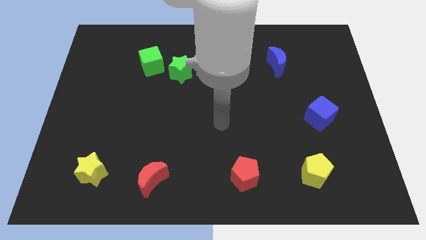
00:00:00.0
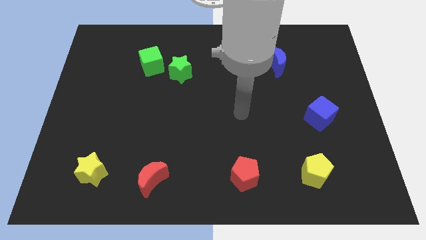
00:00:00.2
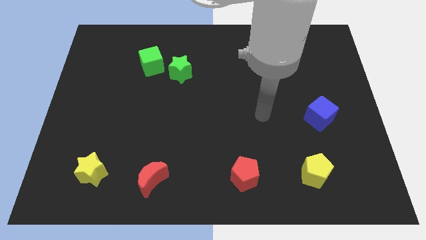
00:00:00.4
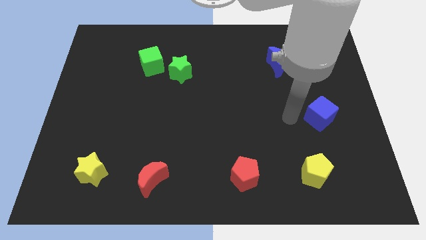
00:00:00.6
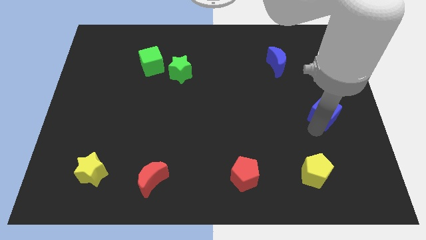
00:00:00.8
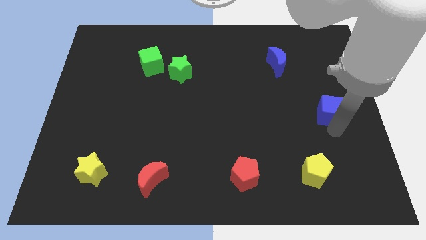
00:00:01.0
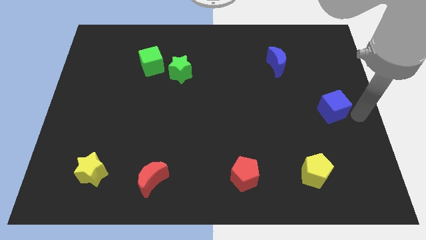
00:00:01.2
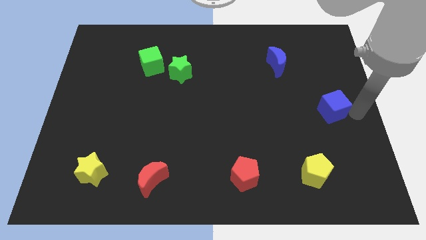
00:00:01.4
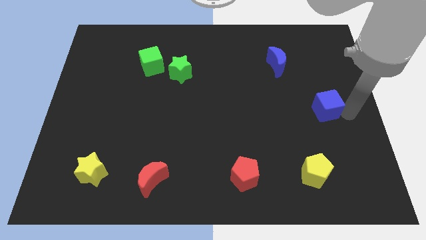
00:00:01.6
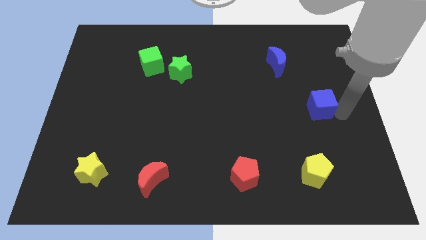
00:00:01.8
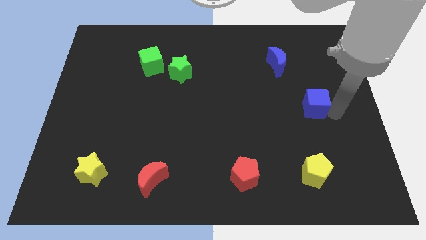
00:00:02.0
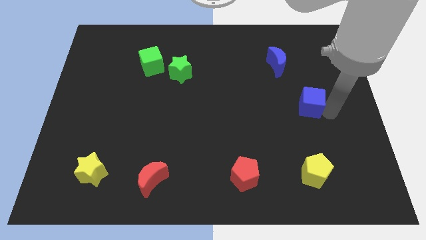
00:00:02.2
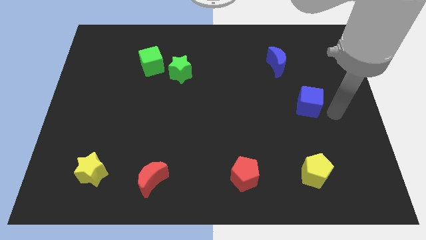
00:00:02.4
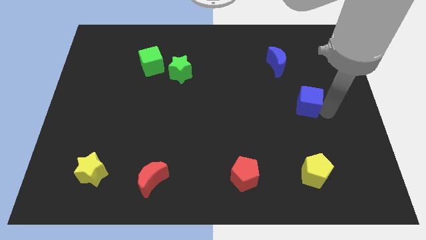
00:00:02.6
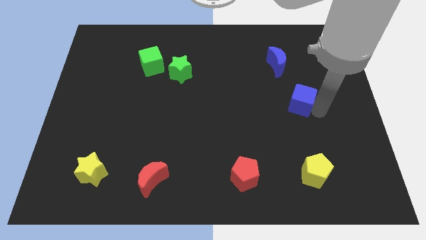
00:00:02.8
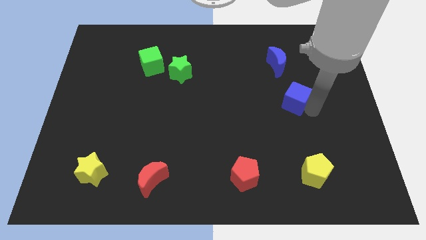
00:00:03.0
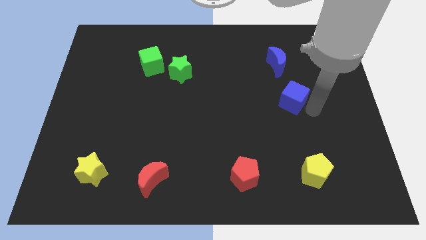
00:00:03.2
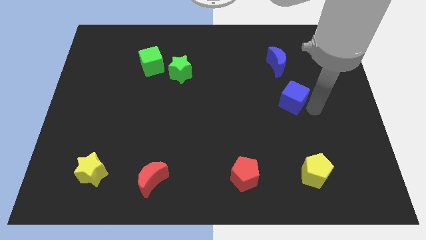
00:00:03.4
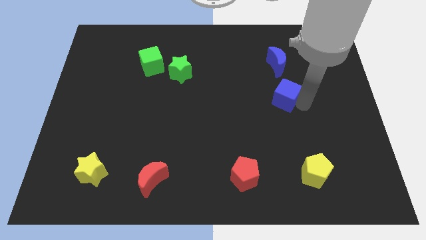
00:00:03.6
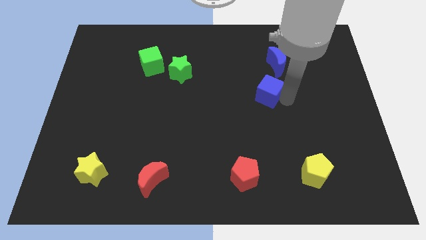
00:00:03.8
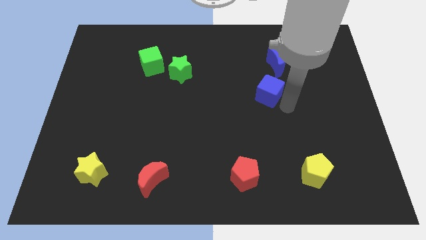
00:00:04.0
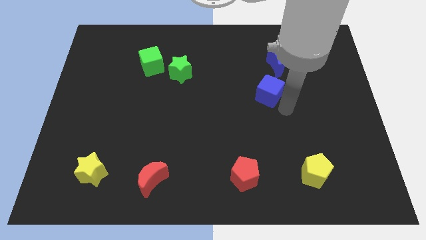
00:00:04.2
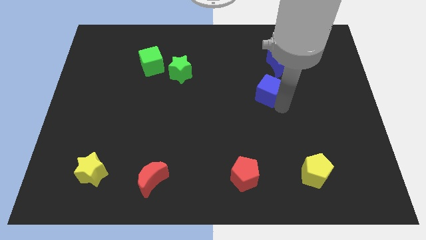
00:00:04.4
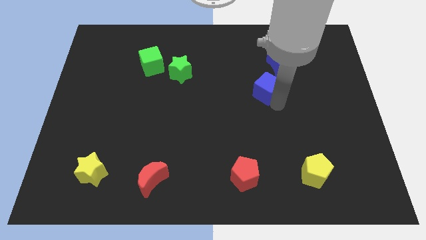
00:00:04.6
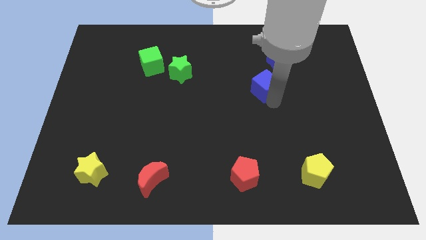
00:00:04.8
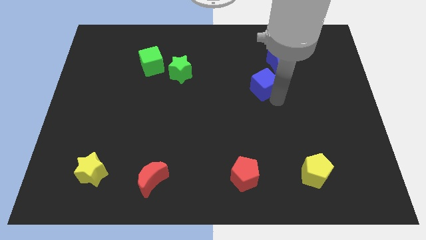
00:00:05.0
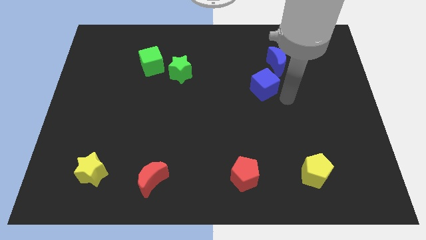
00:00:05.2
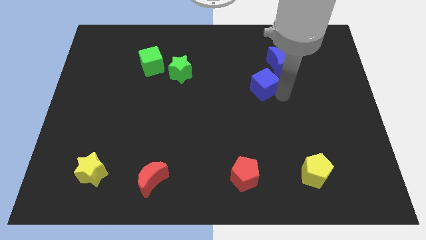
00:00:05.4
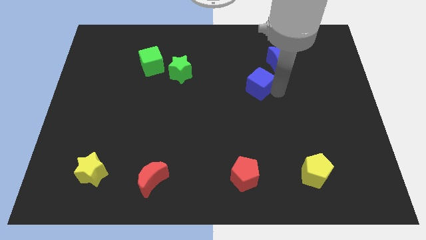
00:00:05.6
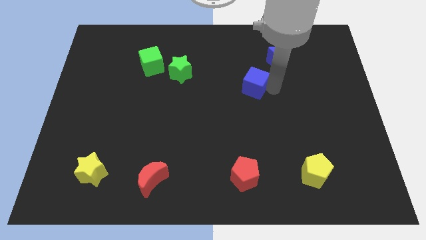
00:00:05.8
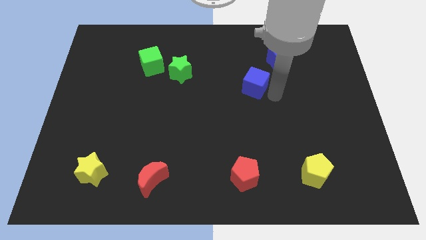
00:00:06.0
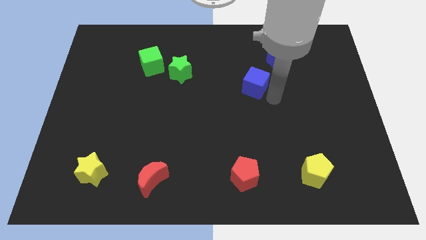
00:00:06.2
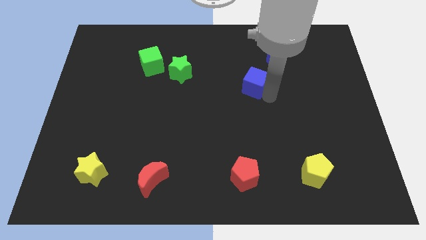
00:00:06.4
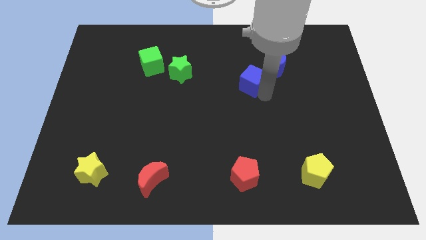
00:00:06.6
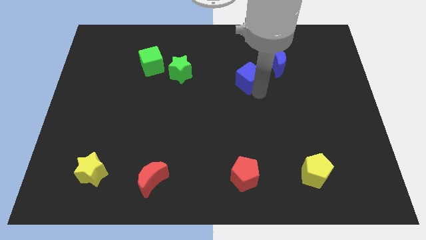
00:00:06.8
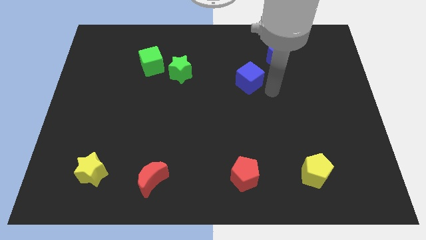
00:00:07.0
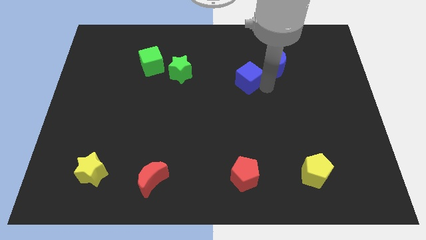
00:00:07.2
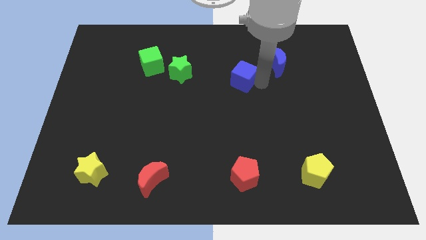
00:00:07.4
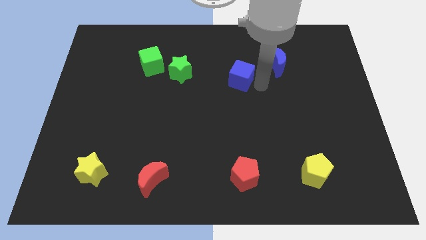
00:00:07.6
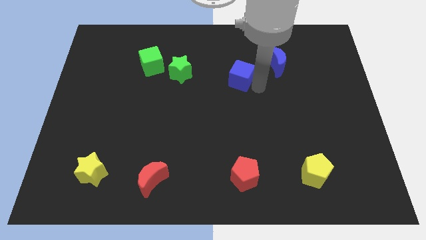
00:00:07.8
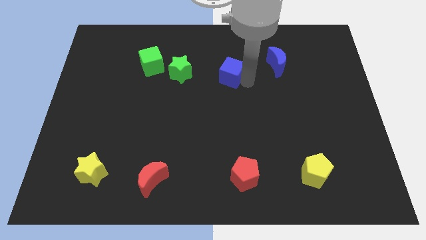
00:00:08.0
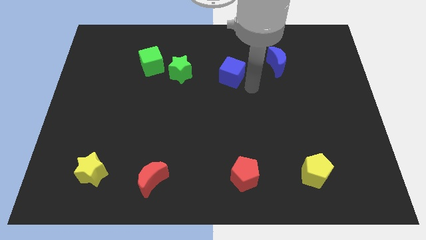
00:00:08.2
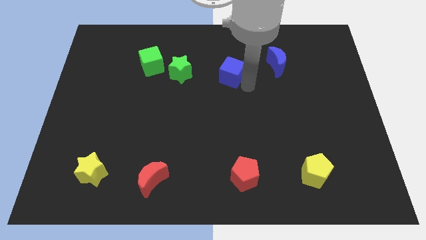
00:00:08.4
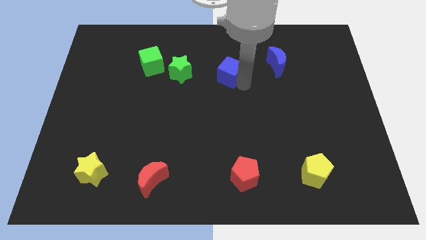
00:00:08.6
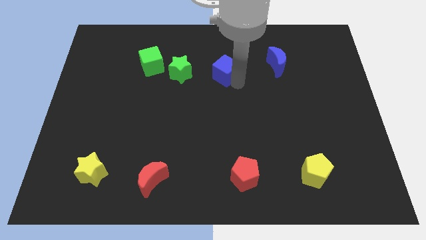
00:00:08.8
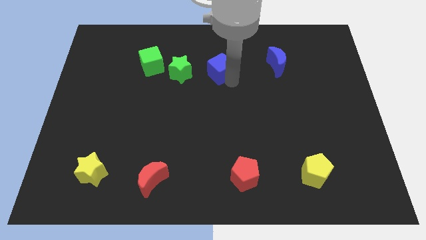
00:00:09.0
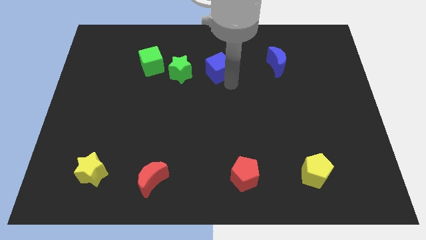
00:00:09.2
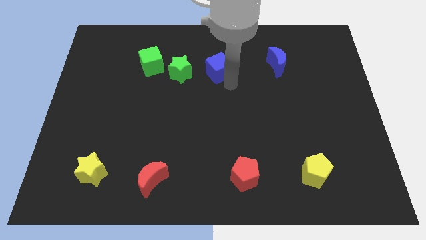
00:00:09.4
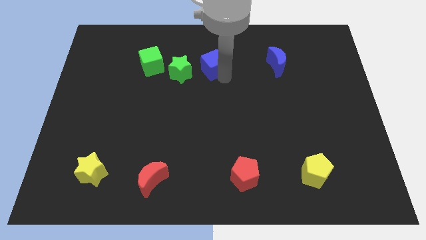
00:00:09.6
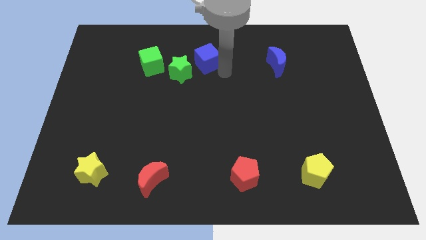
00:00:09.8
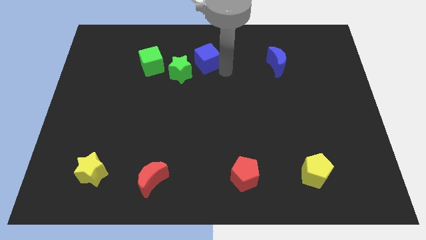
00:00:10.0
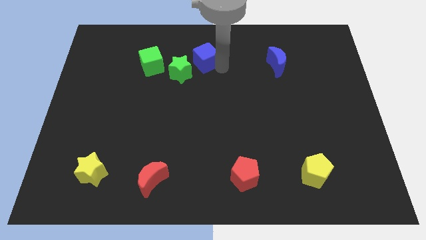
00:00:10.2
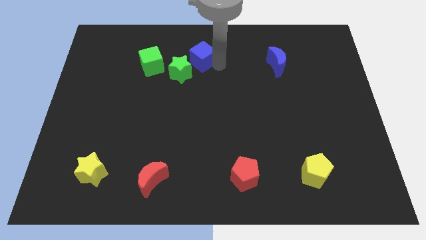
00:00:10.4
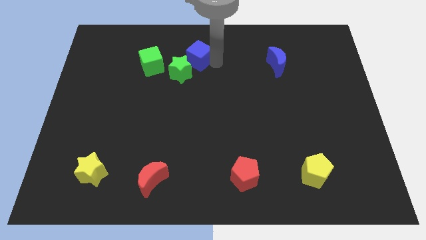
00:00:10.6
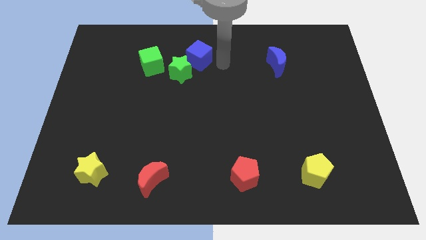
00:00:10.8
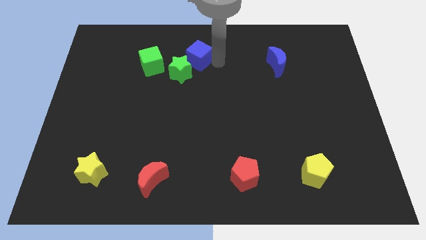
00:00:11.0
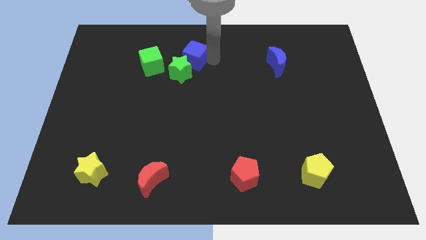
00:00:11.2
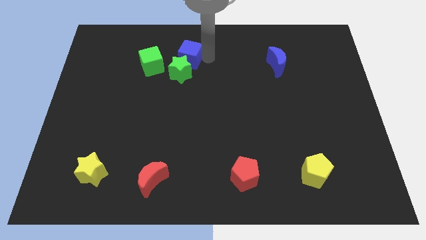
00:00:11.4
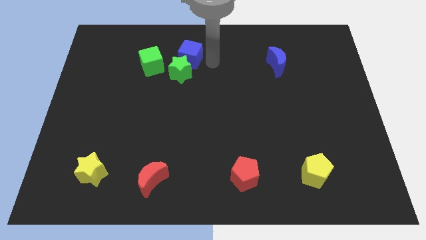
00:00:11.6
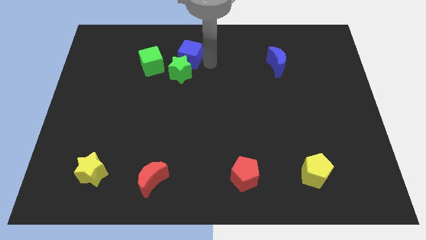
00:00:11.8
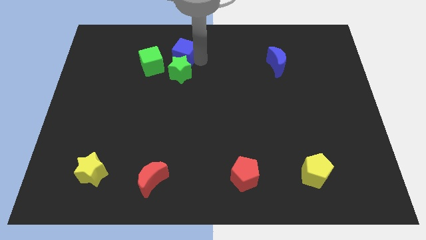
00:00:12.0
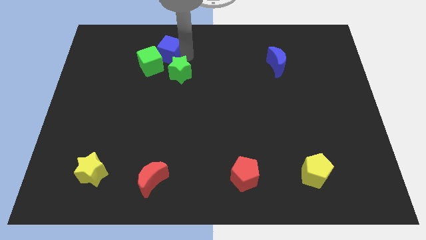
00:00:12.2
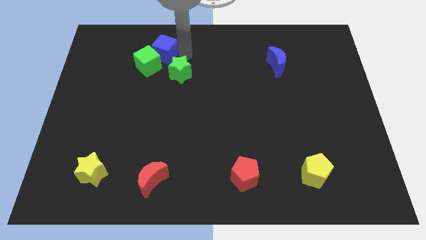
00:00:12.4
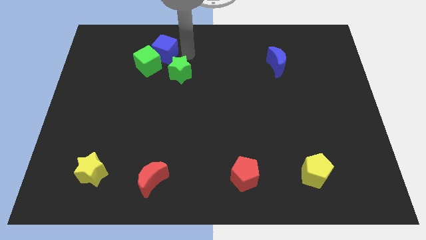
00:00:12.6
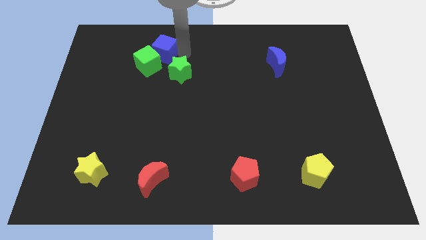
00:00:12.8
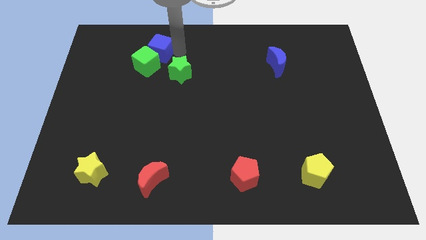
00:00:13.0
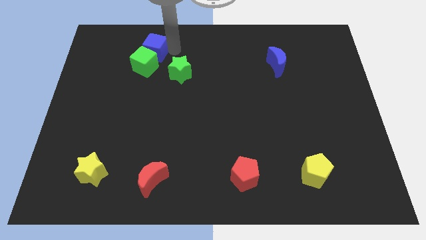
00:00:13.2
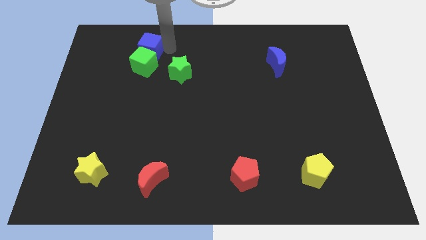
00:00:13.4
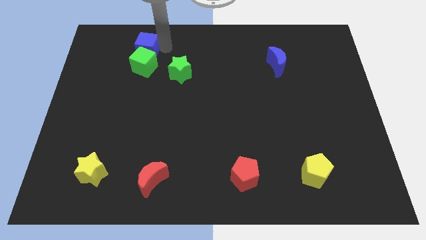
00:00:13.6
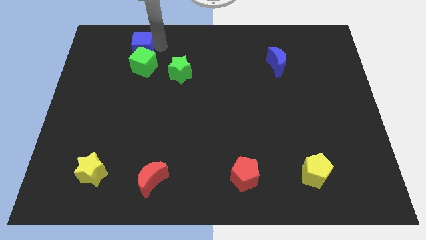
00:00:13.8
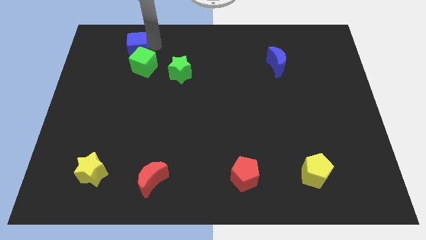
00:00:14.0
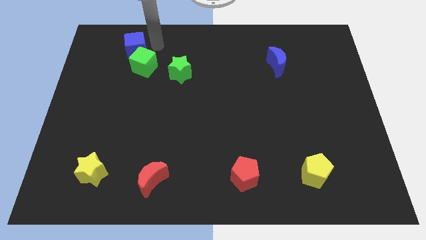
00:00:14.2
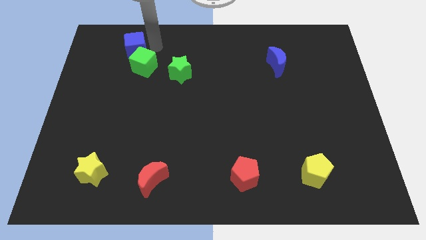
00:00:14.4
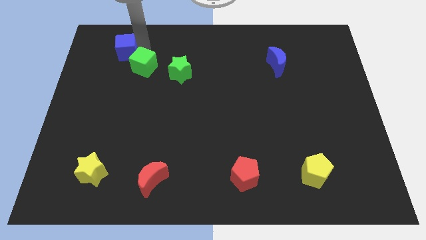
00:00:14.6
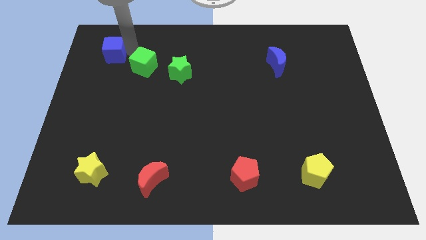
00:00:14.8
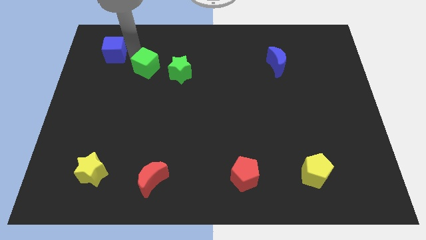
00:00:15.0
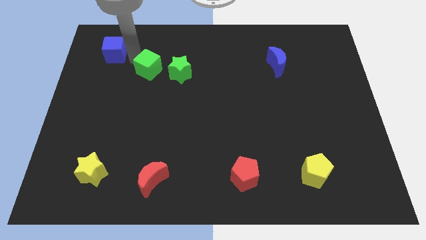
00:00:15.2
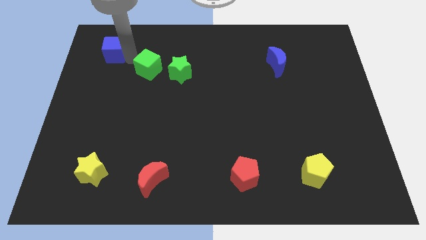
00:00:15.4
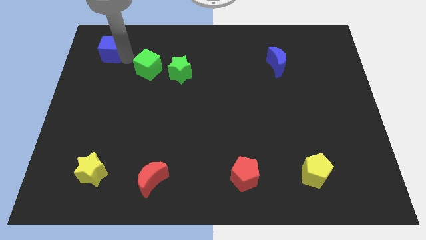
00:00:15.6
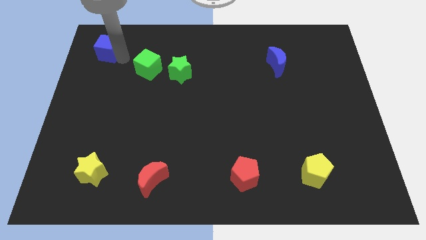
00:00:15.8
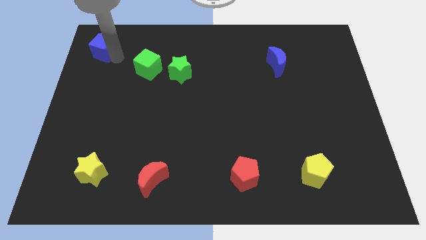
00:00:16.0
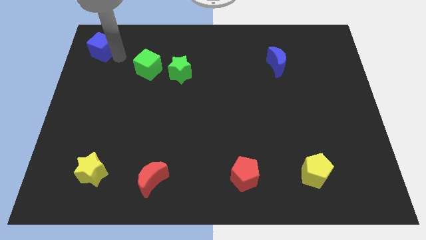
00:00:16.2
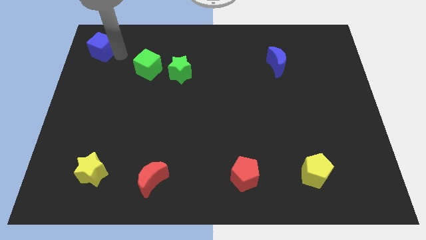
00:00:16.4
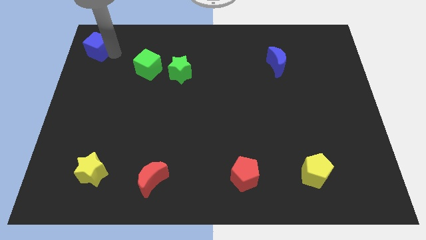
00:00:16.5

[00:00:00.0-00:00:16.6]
move the blue cube to the top left of the board
